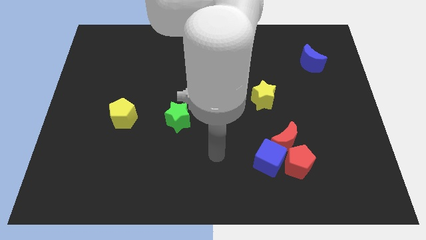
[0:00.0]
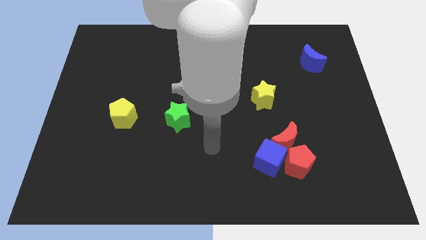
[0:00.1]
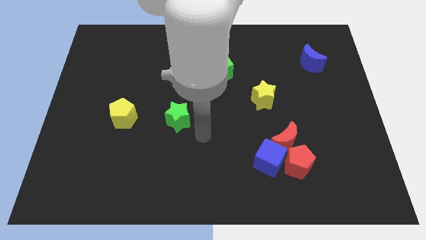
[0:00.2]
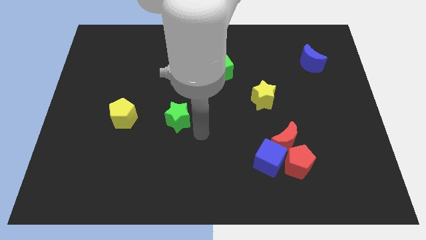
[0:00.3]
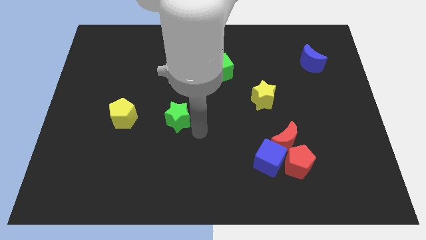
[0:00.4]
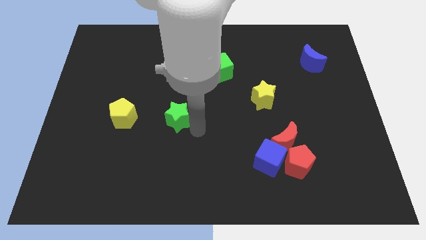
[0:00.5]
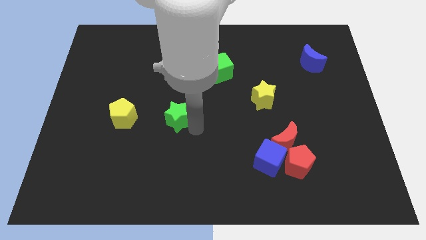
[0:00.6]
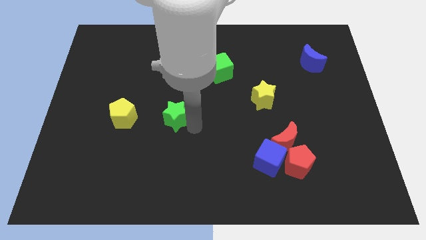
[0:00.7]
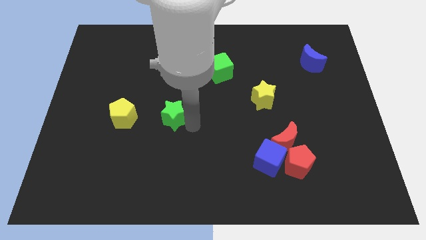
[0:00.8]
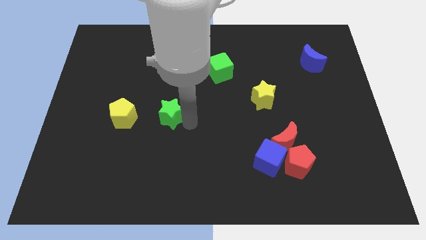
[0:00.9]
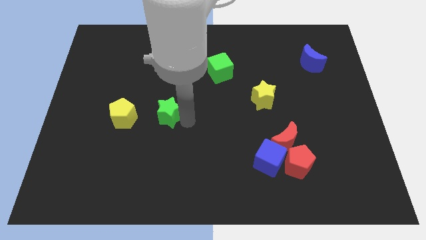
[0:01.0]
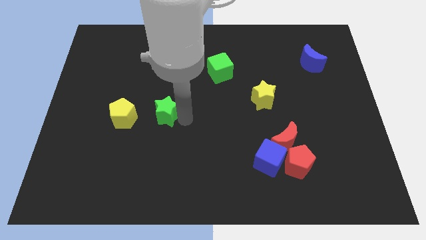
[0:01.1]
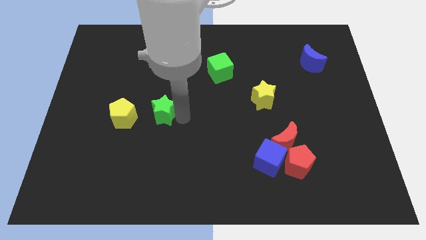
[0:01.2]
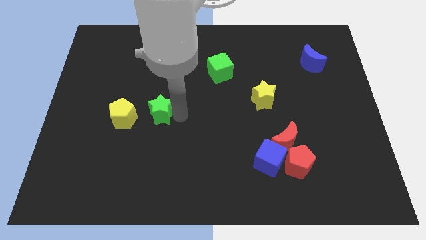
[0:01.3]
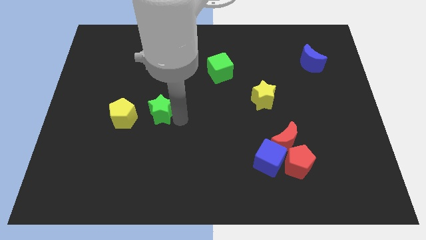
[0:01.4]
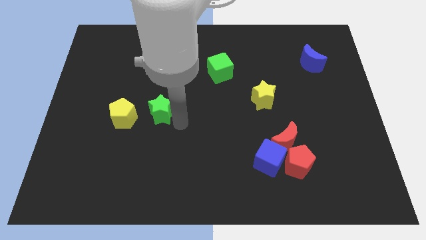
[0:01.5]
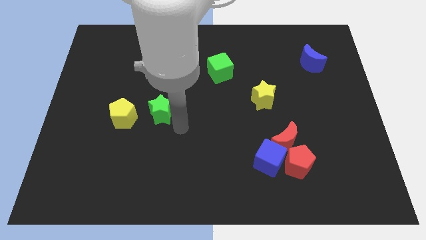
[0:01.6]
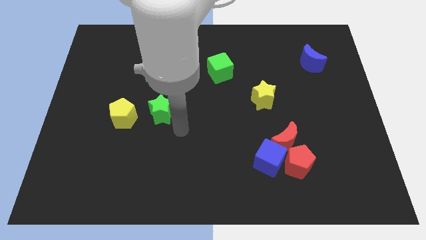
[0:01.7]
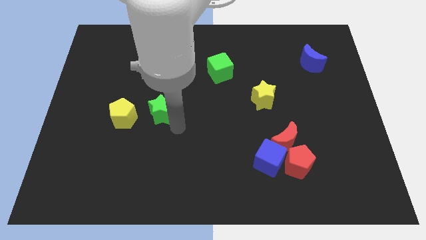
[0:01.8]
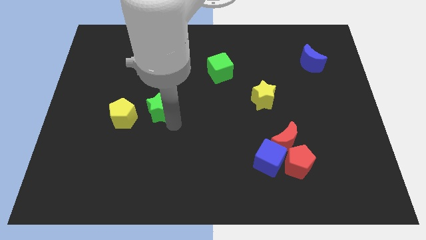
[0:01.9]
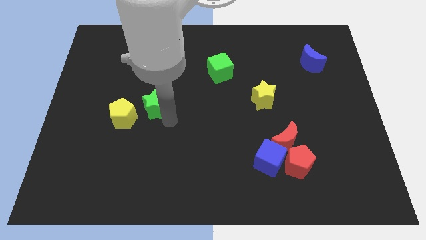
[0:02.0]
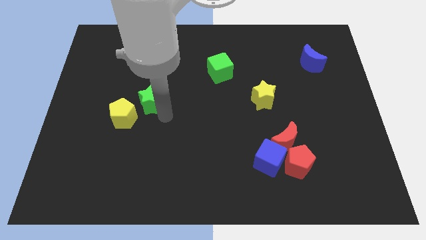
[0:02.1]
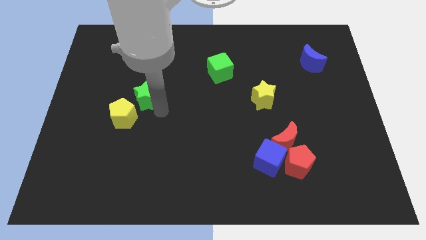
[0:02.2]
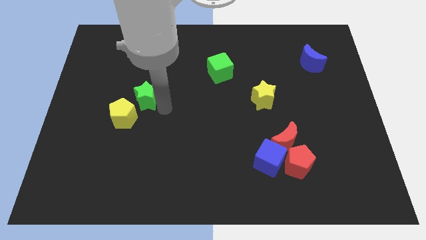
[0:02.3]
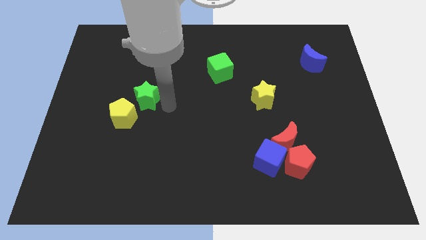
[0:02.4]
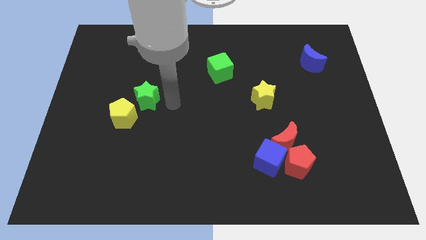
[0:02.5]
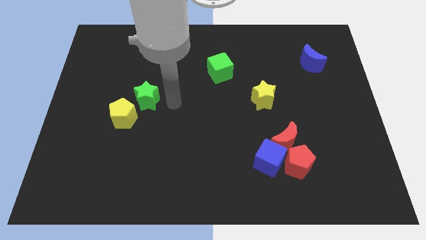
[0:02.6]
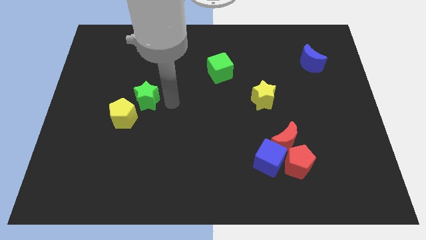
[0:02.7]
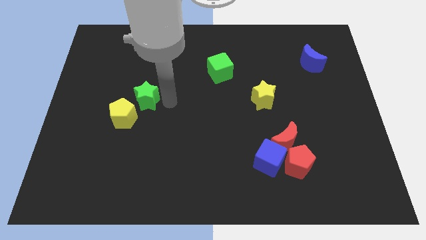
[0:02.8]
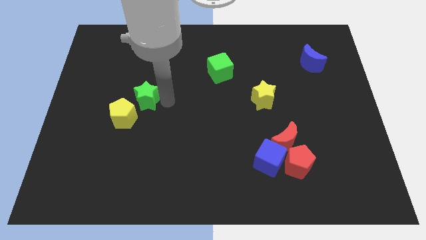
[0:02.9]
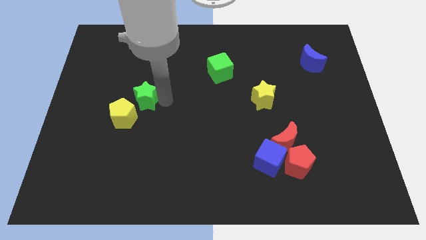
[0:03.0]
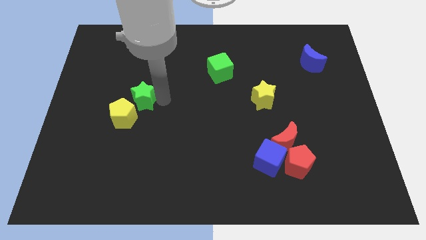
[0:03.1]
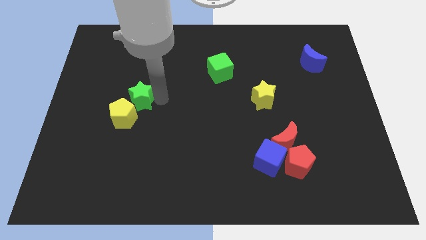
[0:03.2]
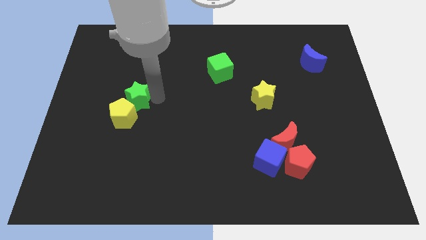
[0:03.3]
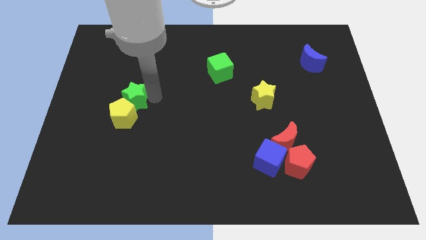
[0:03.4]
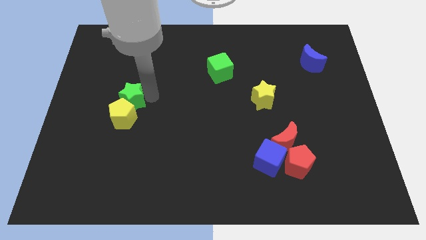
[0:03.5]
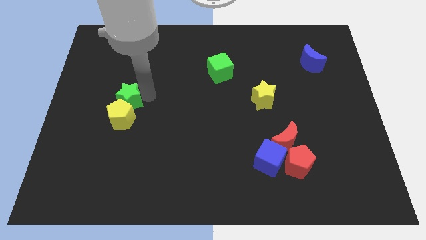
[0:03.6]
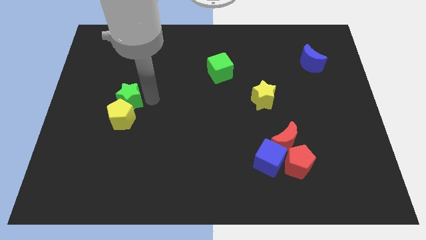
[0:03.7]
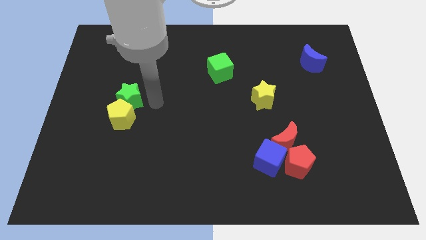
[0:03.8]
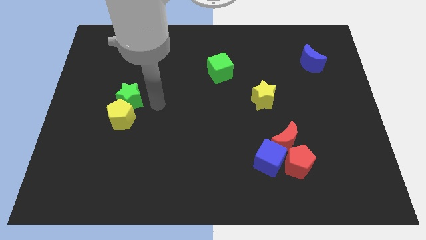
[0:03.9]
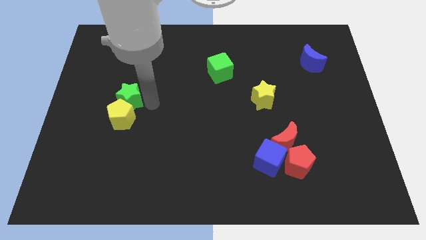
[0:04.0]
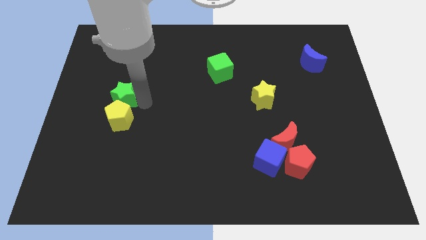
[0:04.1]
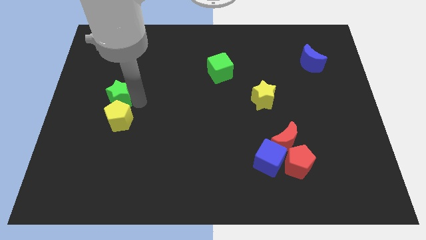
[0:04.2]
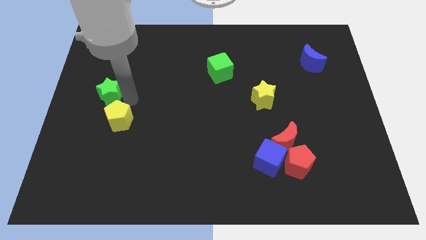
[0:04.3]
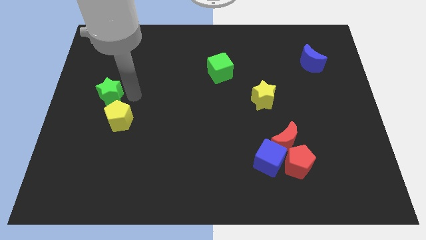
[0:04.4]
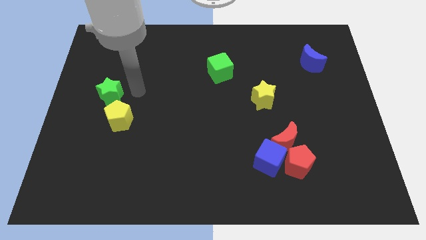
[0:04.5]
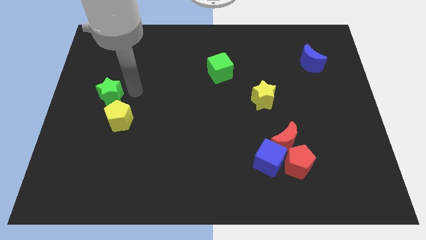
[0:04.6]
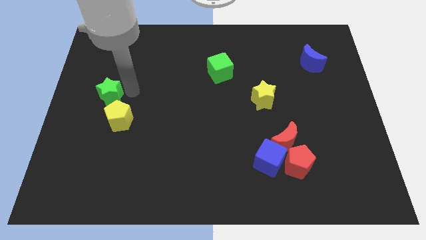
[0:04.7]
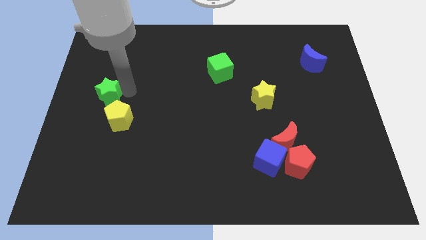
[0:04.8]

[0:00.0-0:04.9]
put the green star to the left side

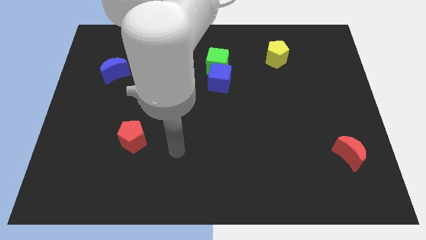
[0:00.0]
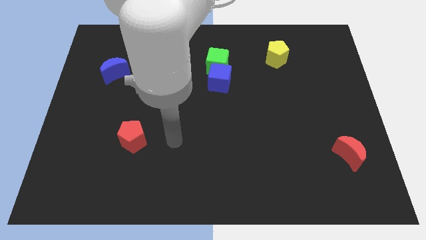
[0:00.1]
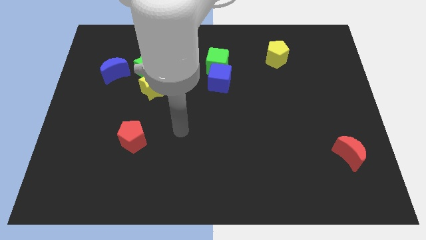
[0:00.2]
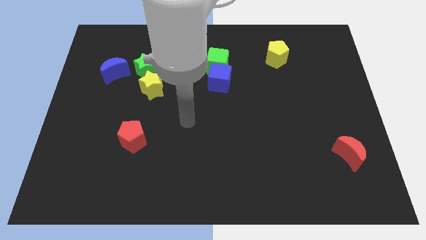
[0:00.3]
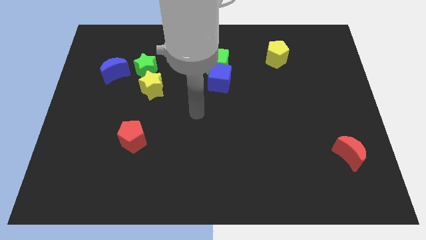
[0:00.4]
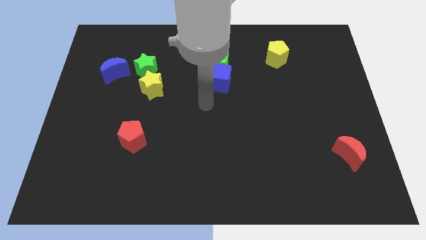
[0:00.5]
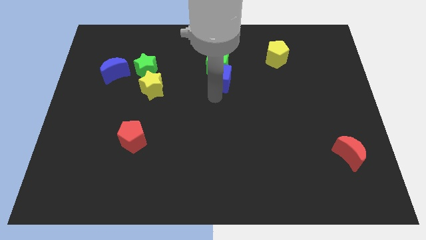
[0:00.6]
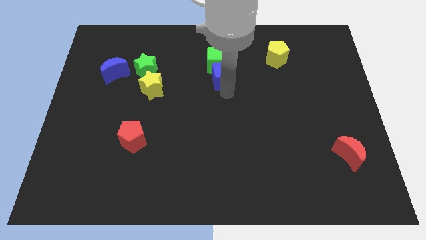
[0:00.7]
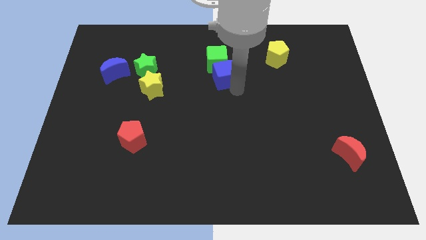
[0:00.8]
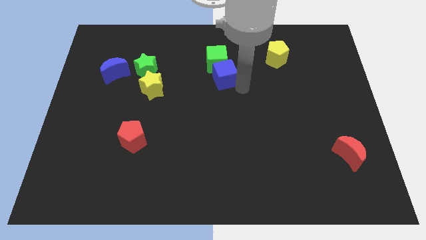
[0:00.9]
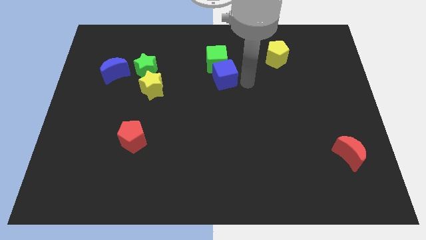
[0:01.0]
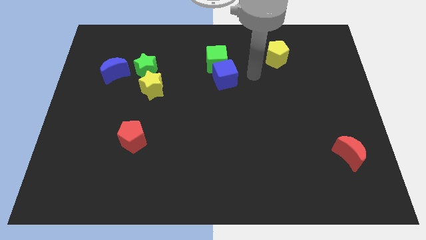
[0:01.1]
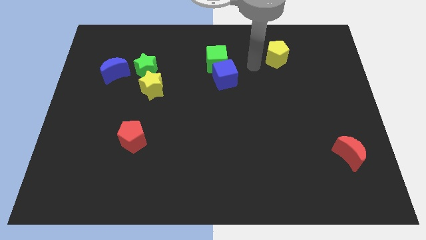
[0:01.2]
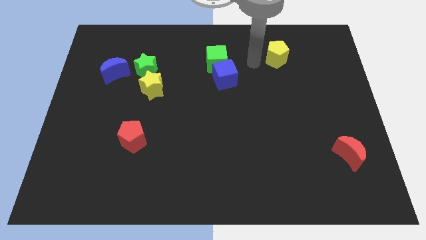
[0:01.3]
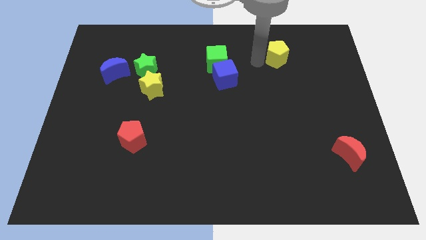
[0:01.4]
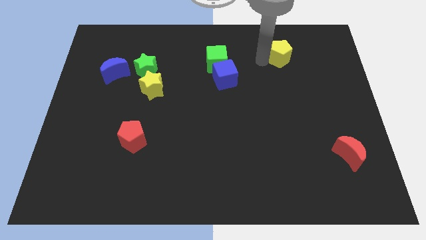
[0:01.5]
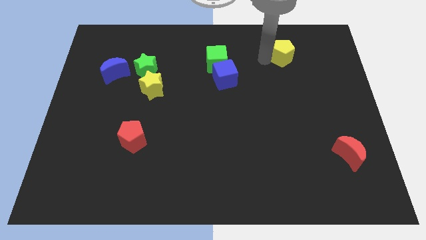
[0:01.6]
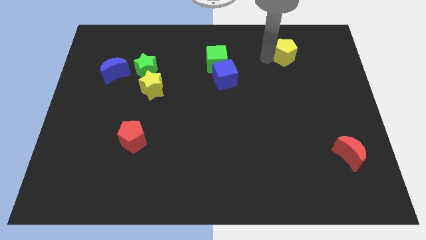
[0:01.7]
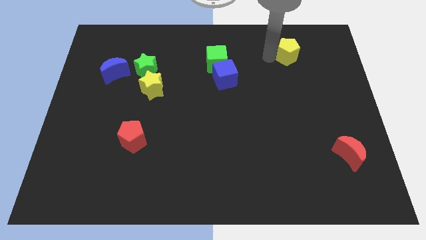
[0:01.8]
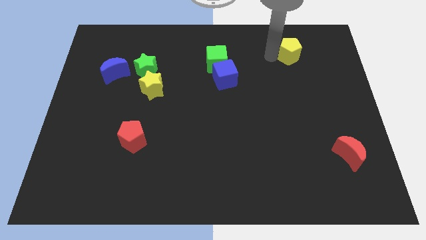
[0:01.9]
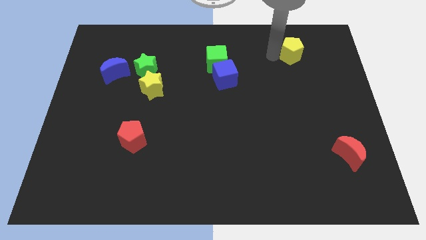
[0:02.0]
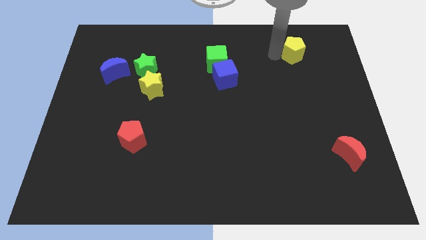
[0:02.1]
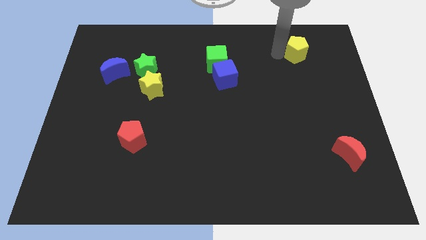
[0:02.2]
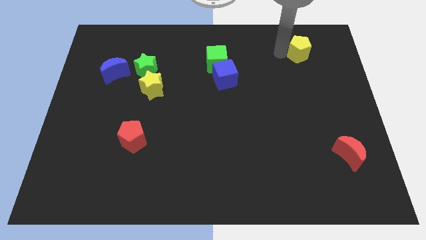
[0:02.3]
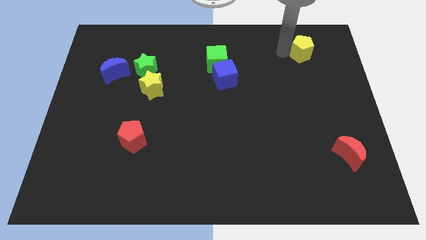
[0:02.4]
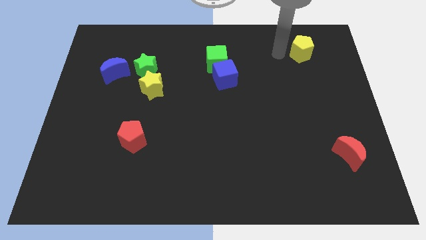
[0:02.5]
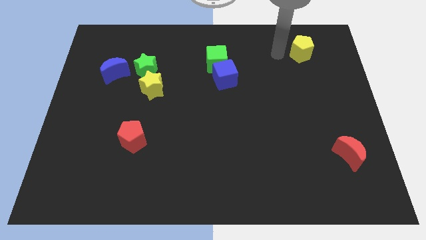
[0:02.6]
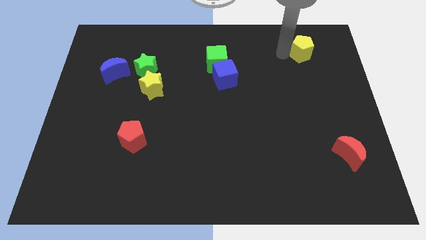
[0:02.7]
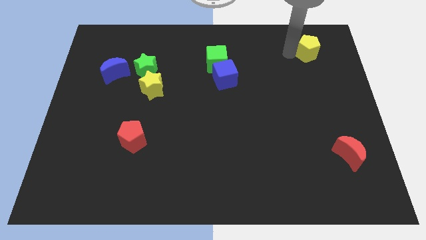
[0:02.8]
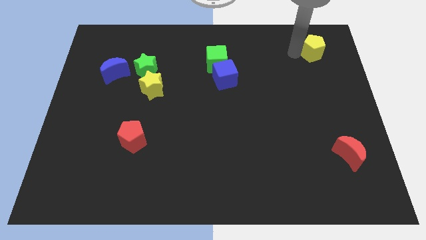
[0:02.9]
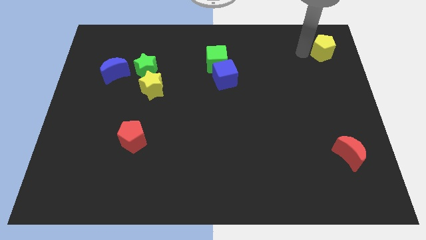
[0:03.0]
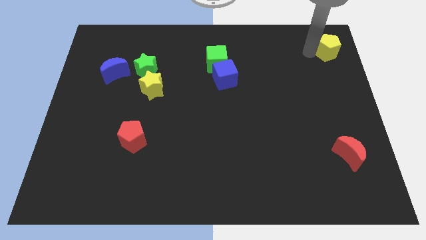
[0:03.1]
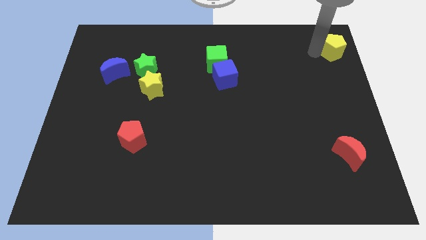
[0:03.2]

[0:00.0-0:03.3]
slide the yellow pentagon to the top right corner
